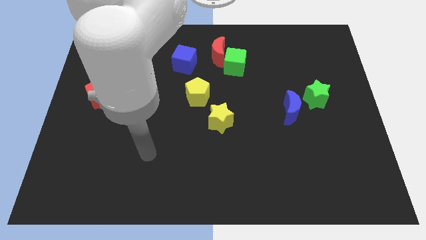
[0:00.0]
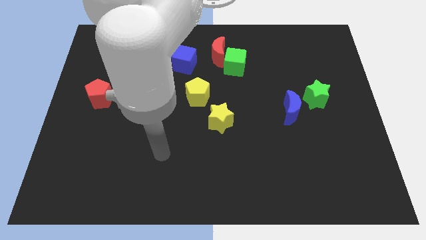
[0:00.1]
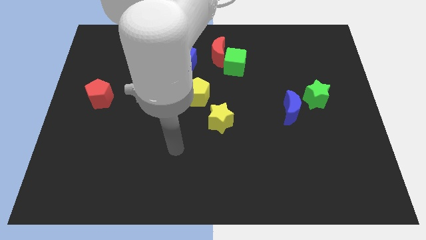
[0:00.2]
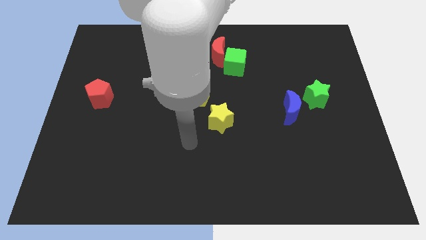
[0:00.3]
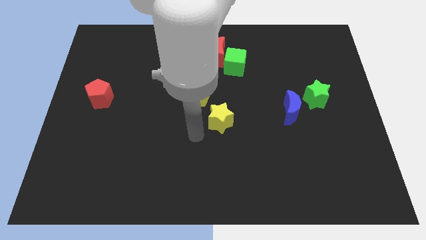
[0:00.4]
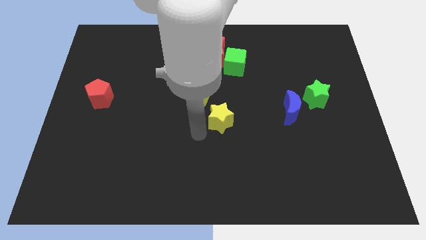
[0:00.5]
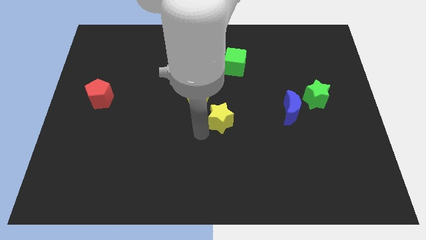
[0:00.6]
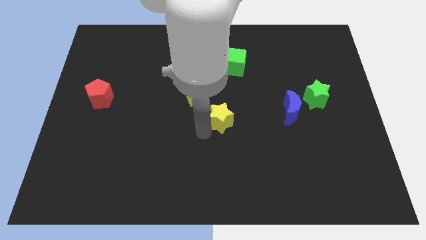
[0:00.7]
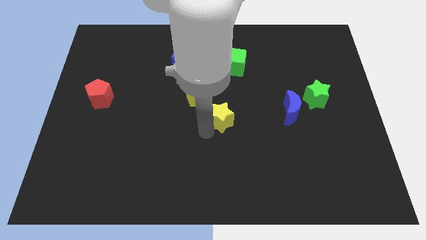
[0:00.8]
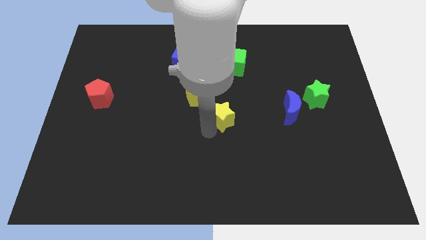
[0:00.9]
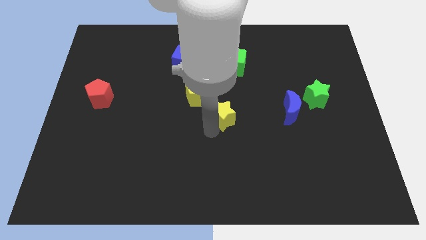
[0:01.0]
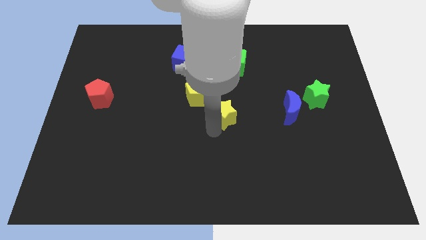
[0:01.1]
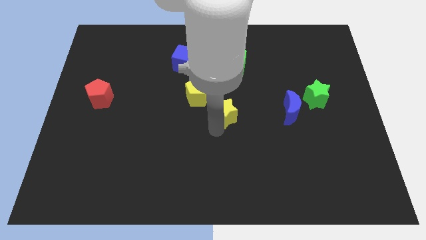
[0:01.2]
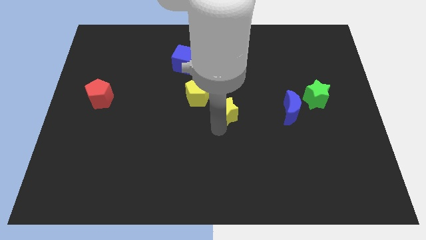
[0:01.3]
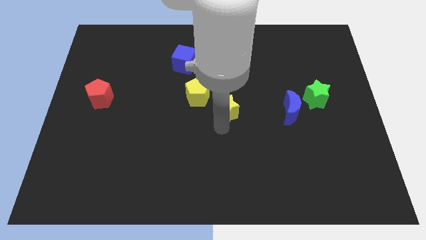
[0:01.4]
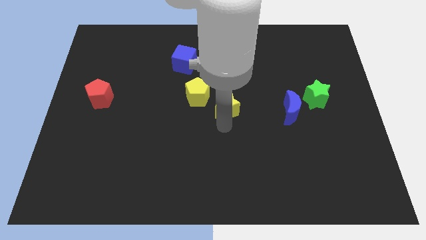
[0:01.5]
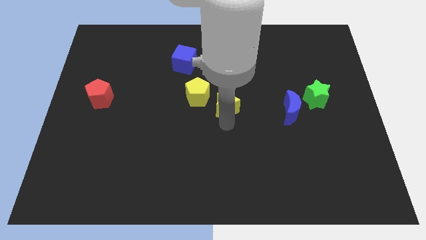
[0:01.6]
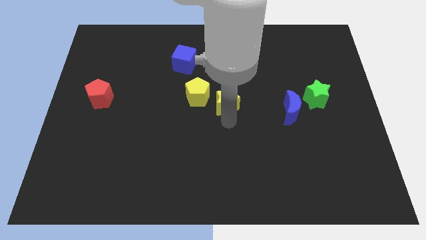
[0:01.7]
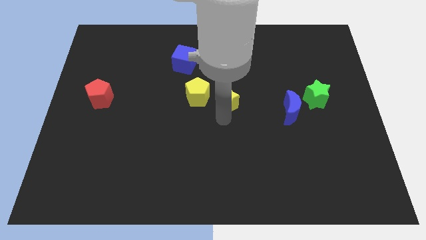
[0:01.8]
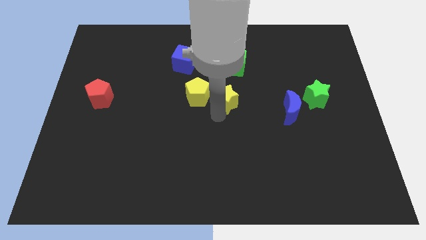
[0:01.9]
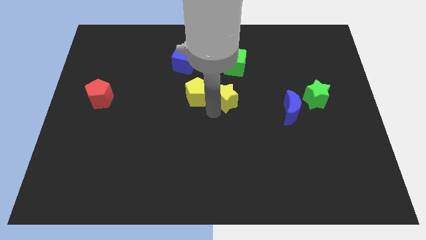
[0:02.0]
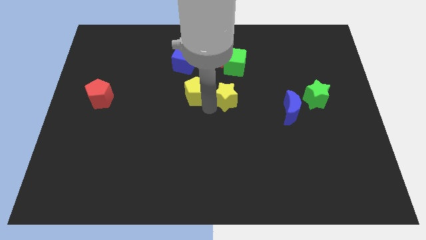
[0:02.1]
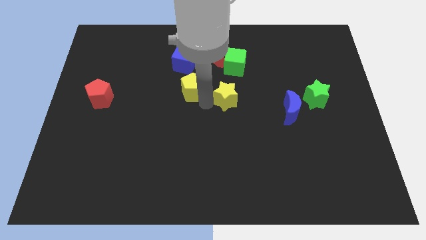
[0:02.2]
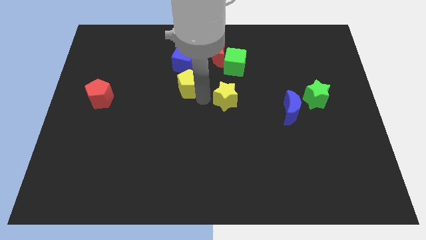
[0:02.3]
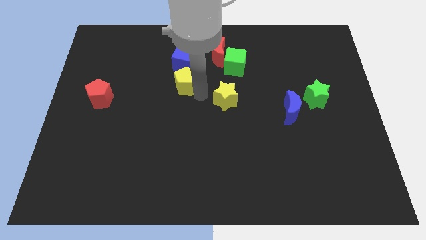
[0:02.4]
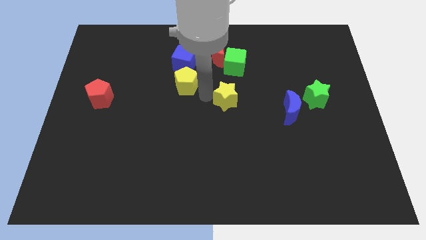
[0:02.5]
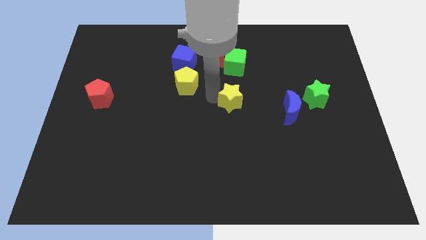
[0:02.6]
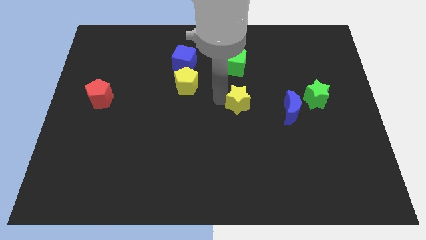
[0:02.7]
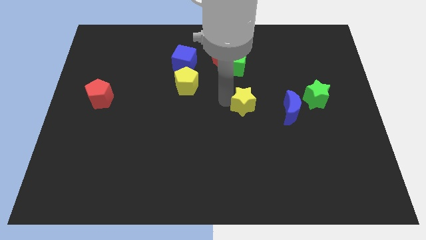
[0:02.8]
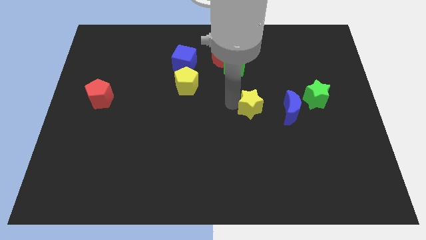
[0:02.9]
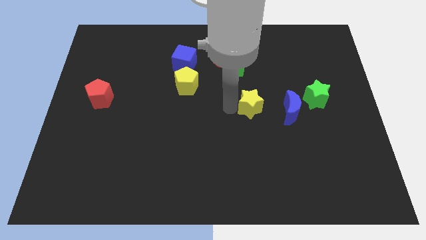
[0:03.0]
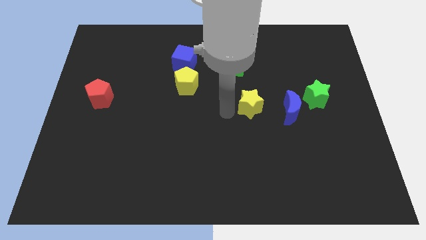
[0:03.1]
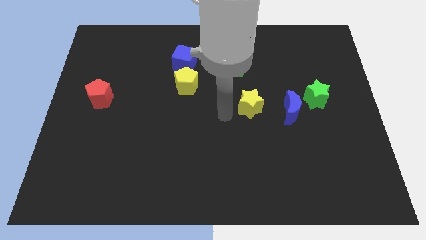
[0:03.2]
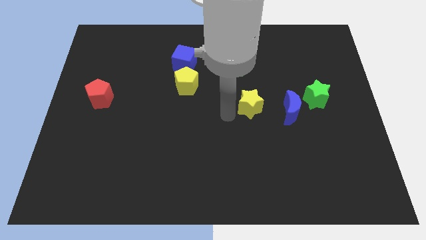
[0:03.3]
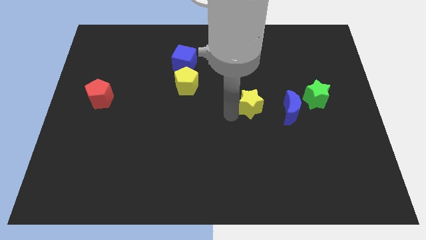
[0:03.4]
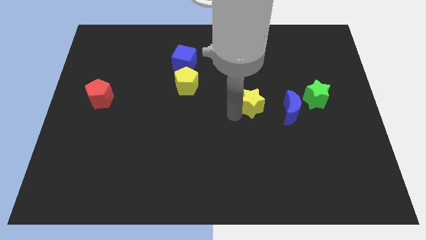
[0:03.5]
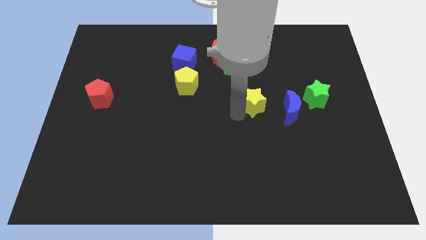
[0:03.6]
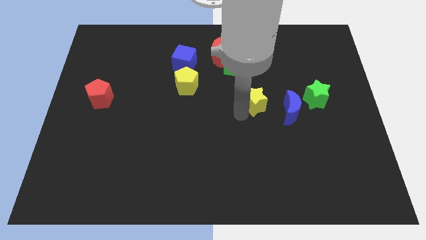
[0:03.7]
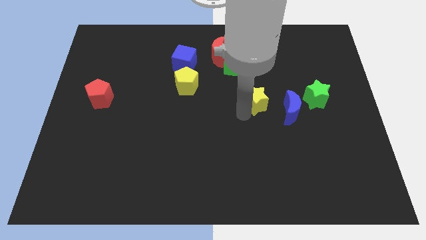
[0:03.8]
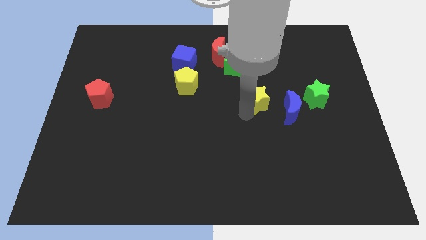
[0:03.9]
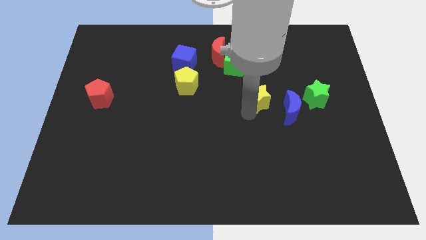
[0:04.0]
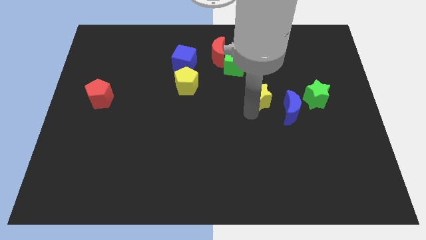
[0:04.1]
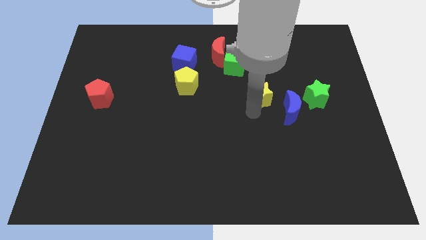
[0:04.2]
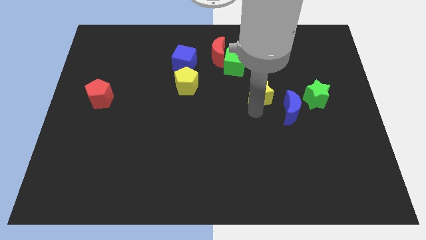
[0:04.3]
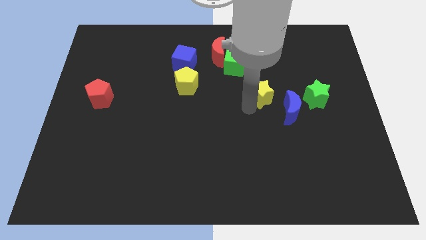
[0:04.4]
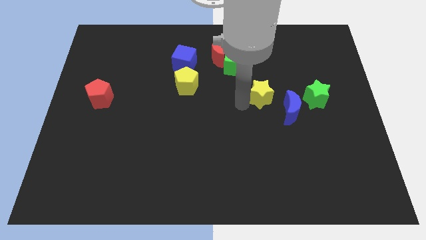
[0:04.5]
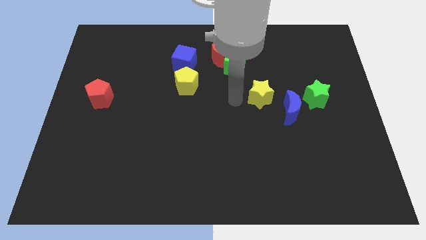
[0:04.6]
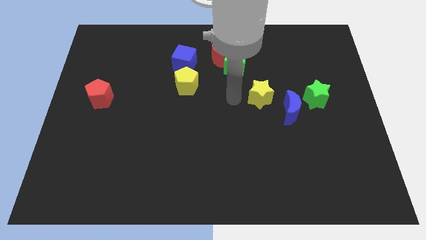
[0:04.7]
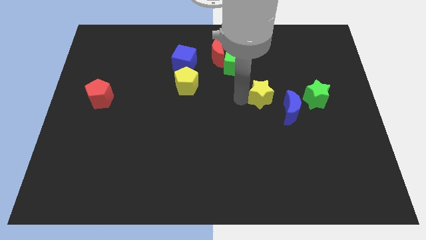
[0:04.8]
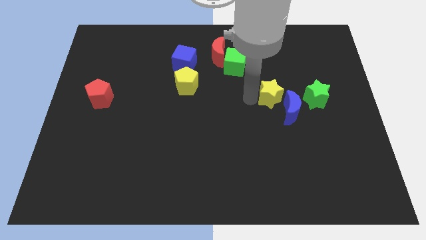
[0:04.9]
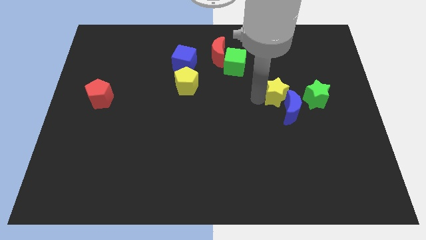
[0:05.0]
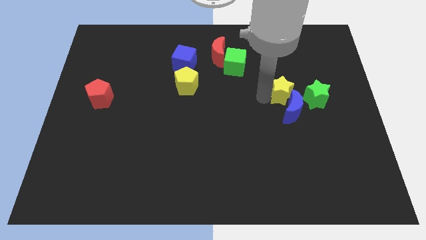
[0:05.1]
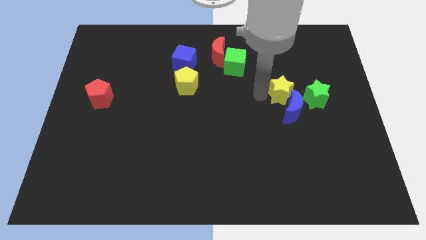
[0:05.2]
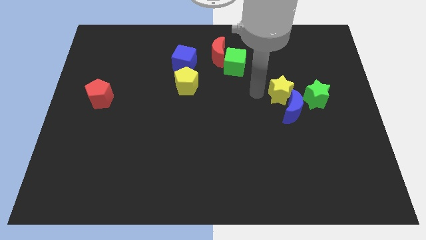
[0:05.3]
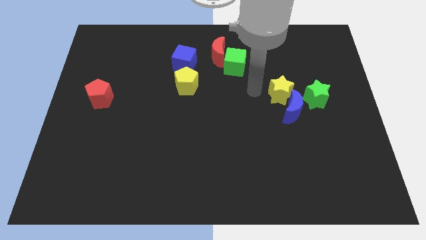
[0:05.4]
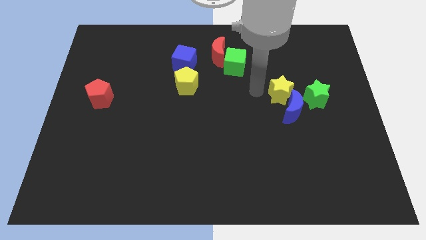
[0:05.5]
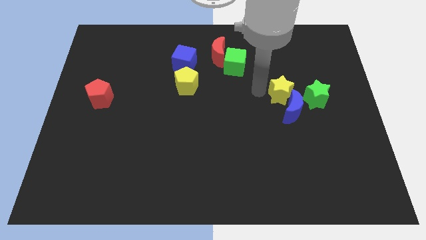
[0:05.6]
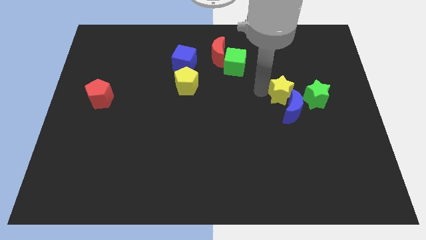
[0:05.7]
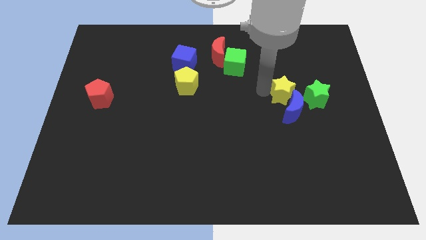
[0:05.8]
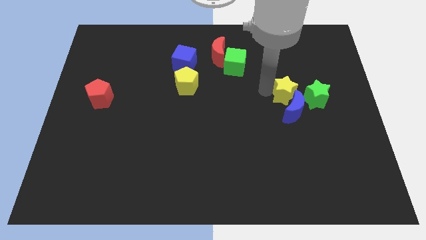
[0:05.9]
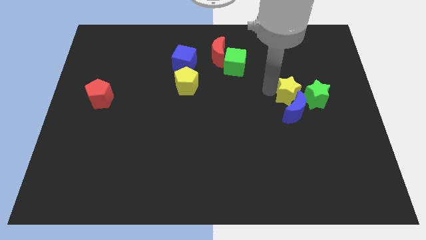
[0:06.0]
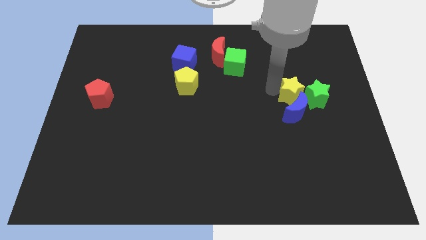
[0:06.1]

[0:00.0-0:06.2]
slide the yellow star close to the green star

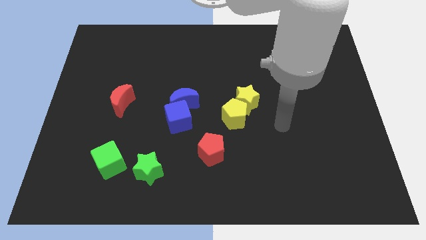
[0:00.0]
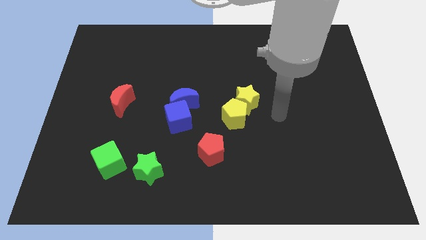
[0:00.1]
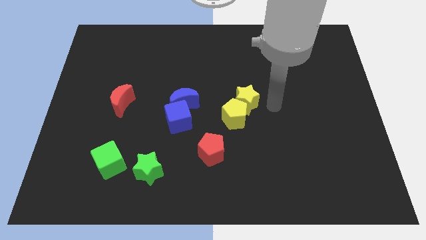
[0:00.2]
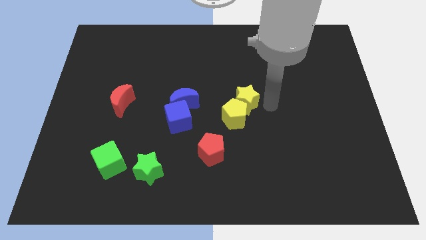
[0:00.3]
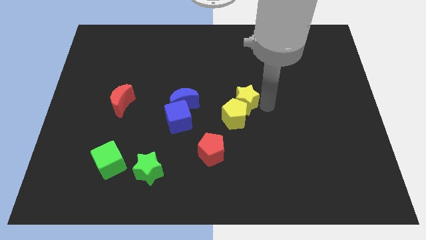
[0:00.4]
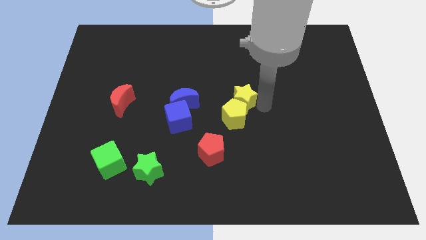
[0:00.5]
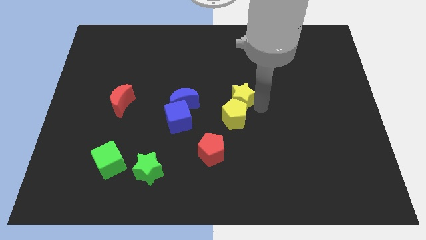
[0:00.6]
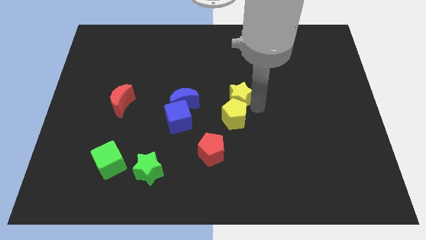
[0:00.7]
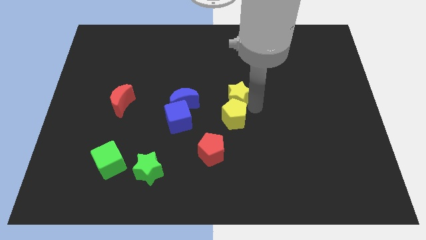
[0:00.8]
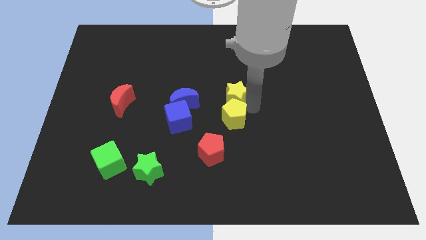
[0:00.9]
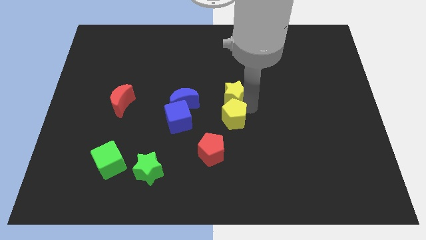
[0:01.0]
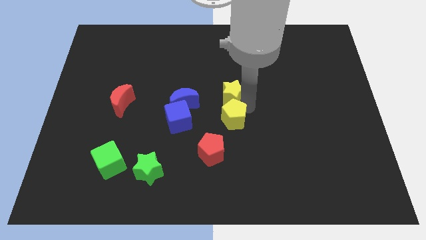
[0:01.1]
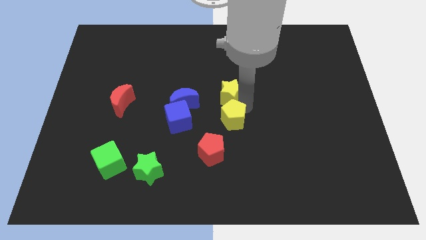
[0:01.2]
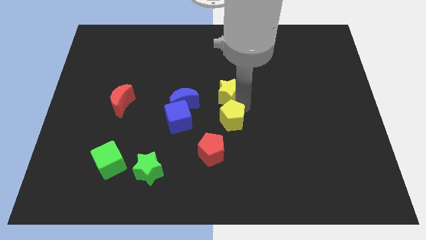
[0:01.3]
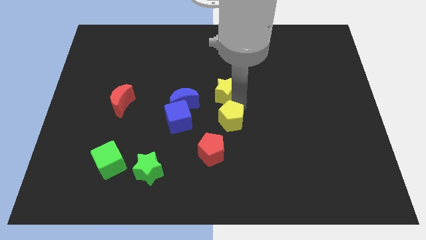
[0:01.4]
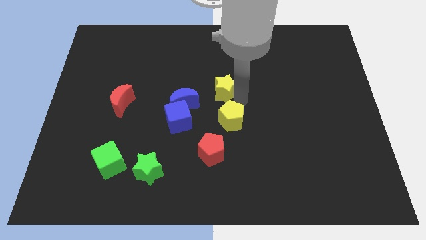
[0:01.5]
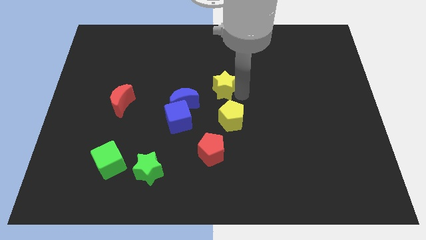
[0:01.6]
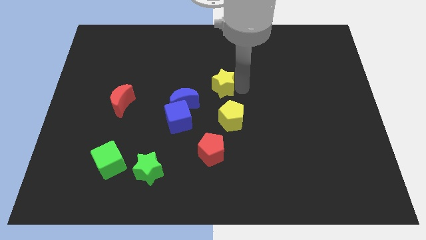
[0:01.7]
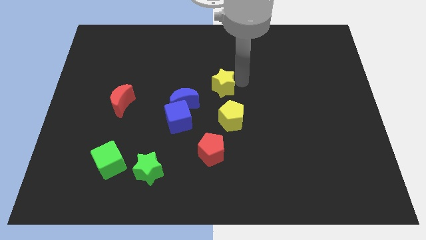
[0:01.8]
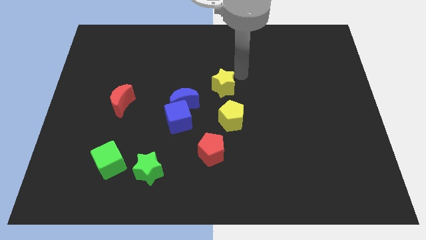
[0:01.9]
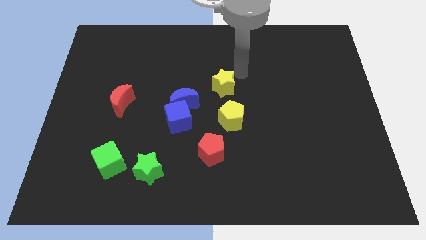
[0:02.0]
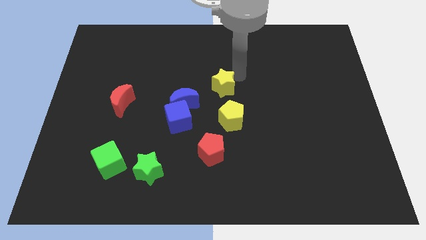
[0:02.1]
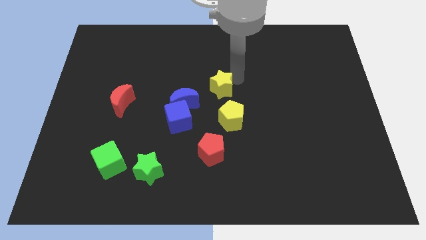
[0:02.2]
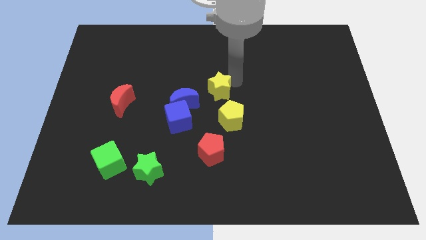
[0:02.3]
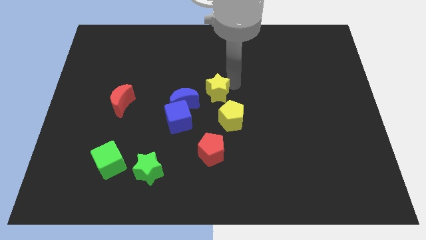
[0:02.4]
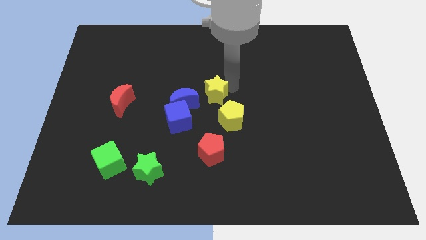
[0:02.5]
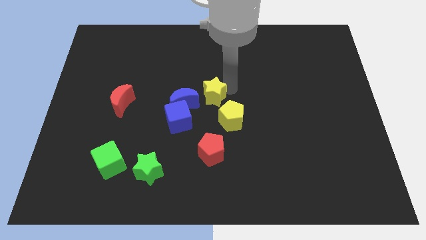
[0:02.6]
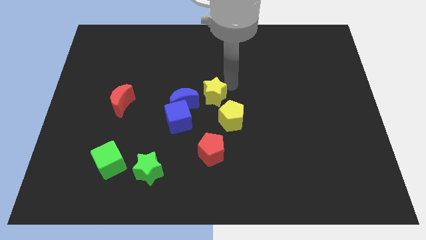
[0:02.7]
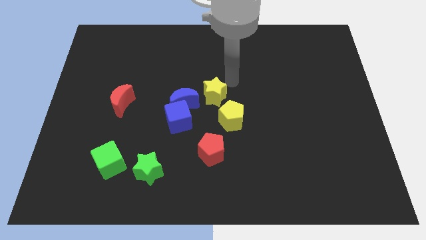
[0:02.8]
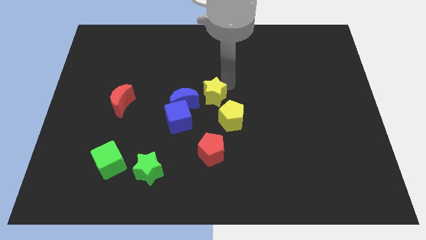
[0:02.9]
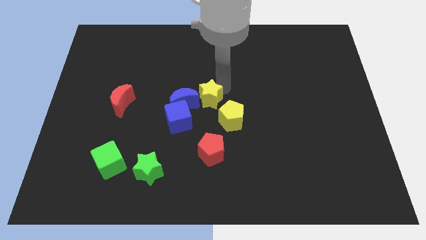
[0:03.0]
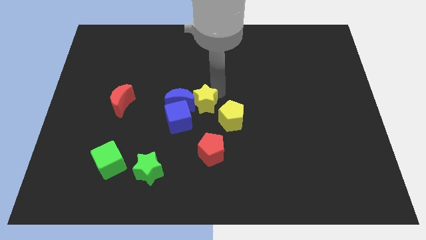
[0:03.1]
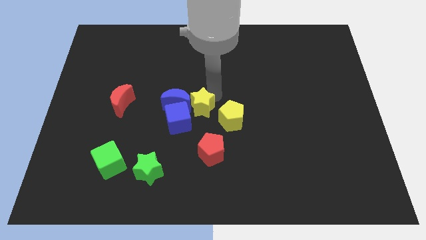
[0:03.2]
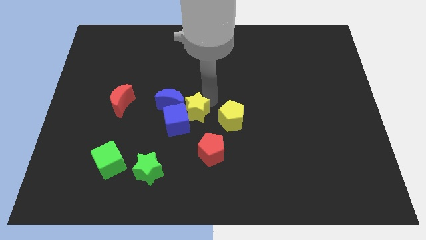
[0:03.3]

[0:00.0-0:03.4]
slide the yellow star to the blue cube
